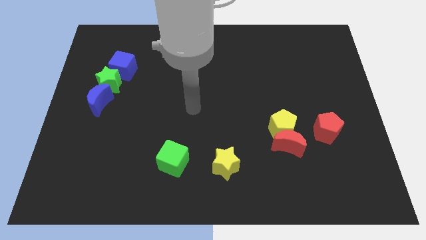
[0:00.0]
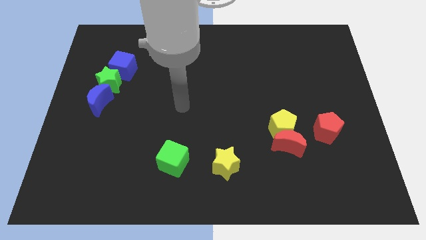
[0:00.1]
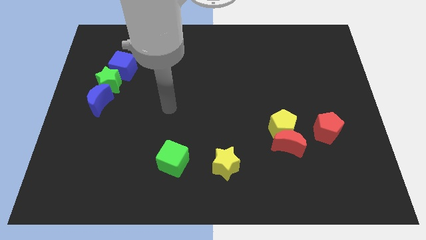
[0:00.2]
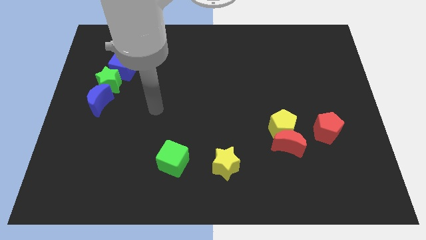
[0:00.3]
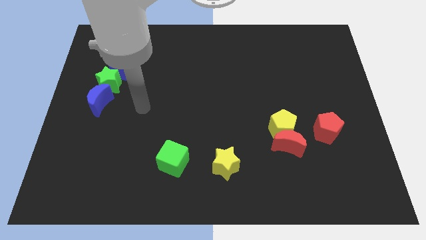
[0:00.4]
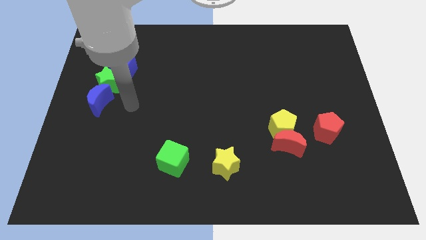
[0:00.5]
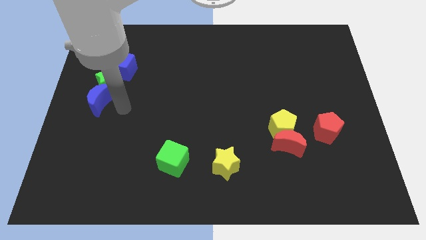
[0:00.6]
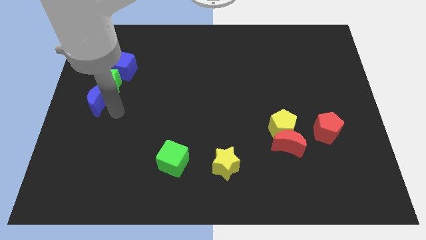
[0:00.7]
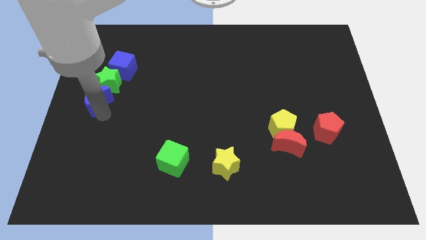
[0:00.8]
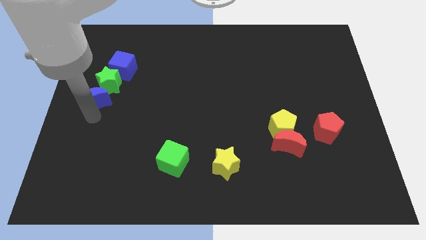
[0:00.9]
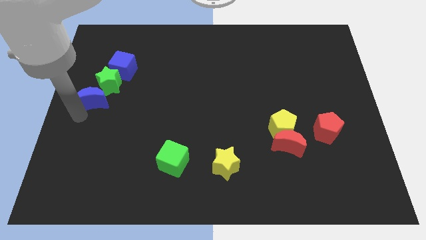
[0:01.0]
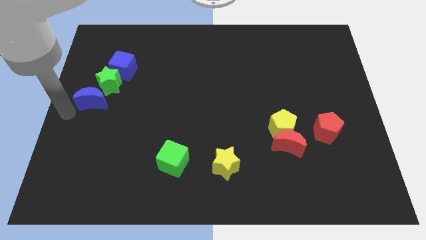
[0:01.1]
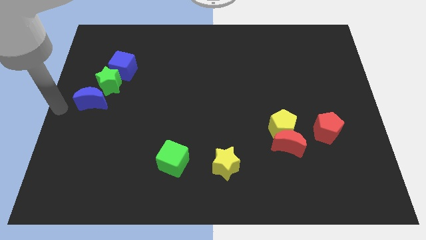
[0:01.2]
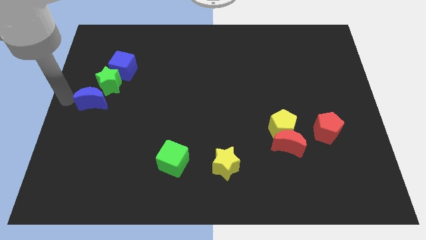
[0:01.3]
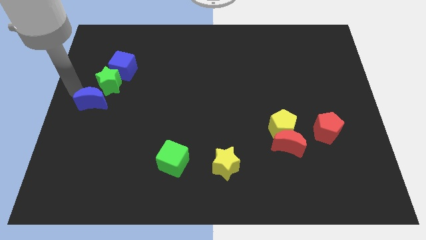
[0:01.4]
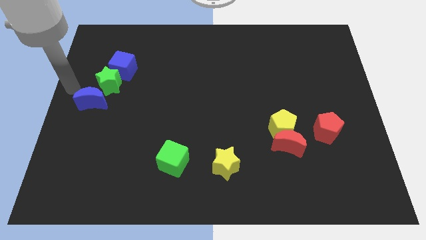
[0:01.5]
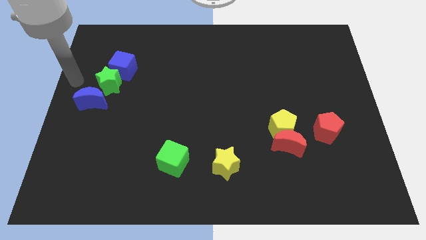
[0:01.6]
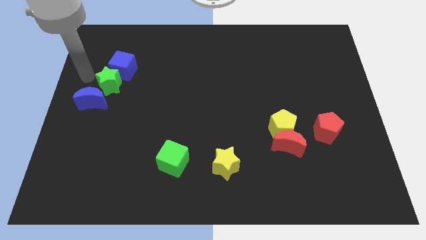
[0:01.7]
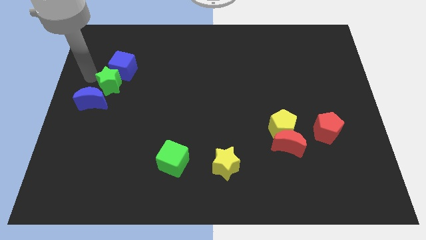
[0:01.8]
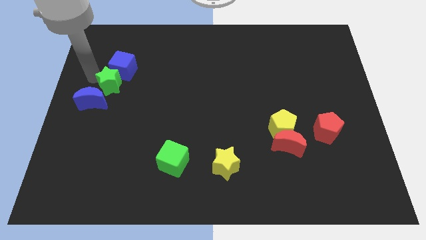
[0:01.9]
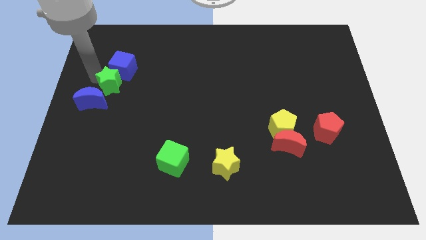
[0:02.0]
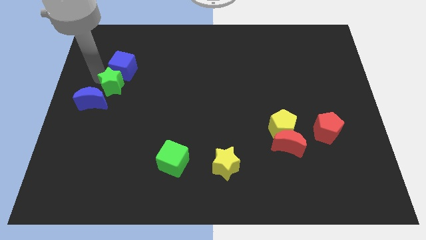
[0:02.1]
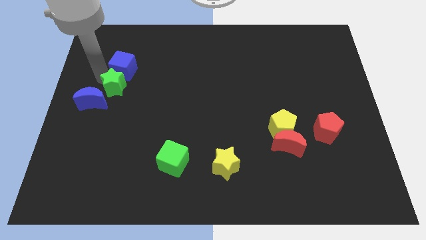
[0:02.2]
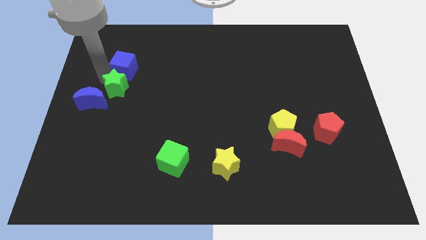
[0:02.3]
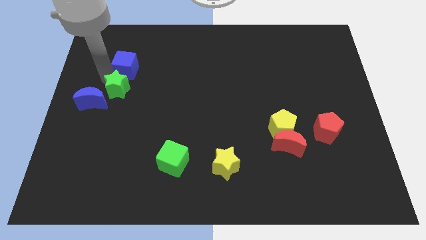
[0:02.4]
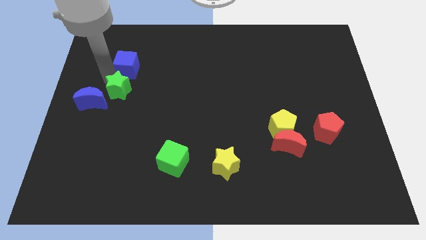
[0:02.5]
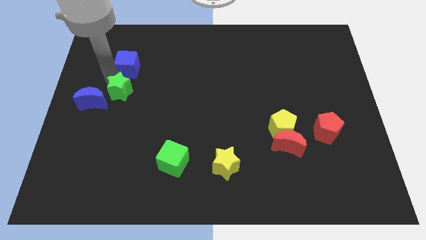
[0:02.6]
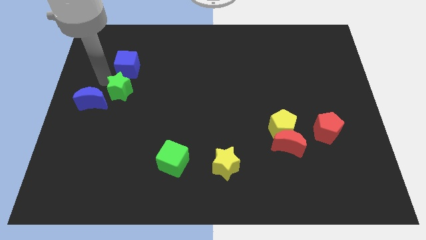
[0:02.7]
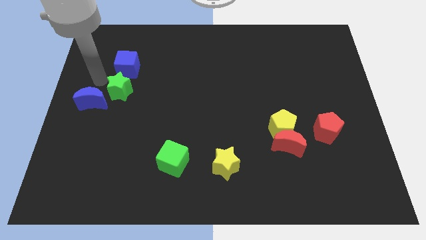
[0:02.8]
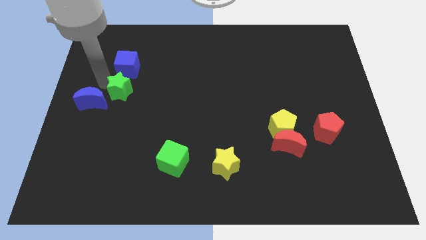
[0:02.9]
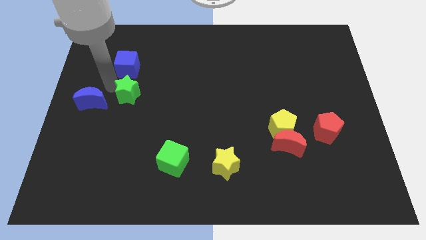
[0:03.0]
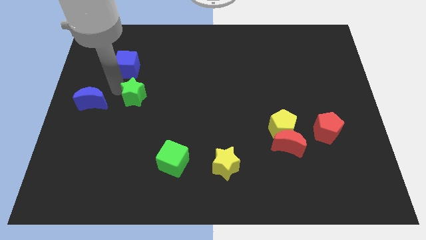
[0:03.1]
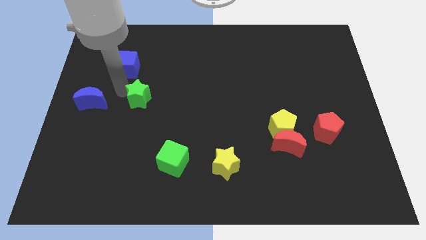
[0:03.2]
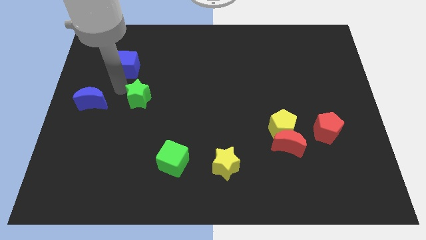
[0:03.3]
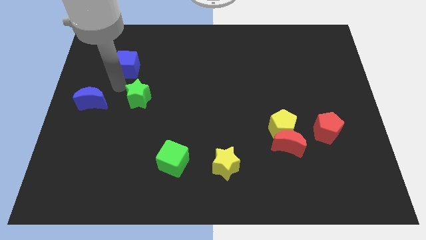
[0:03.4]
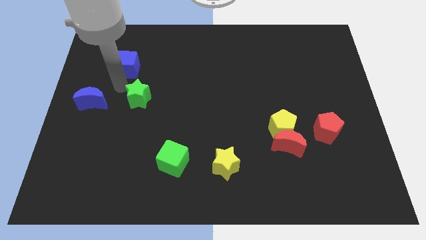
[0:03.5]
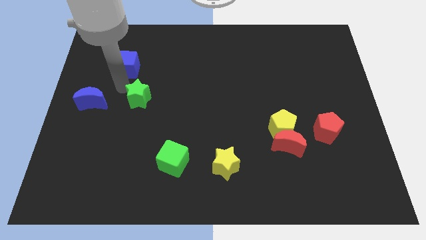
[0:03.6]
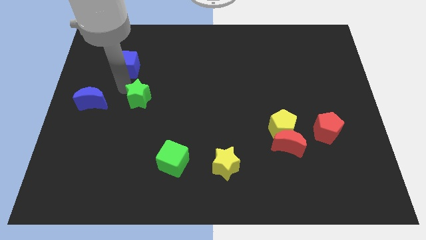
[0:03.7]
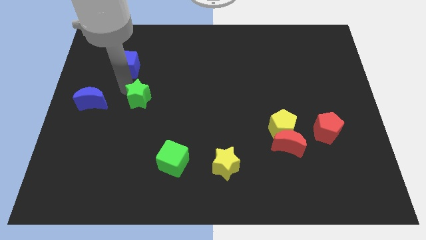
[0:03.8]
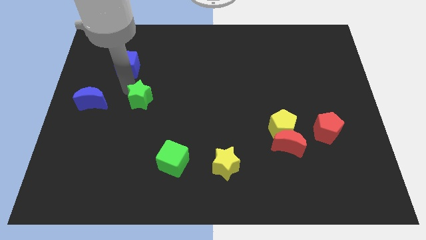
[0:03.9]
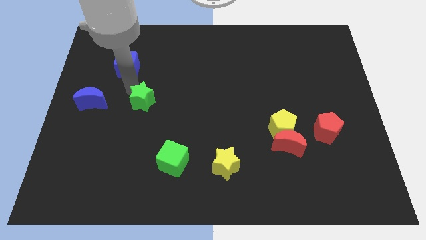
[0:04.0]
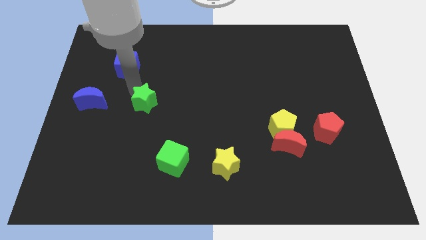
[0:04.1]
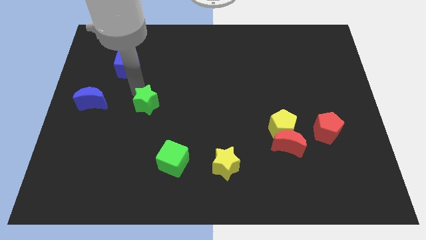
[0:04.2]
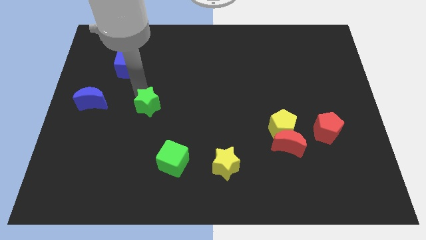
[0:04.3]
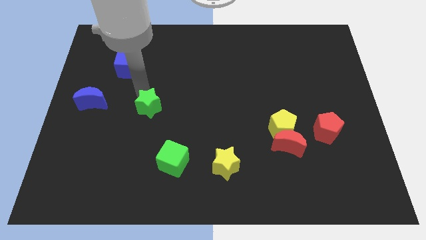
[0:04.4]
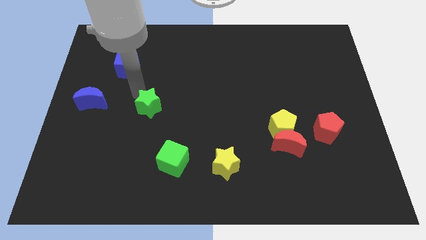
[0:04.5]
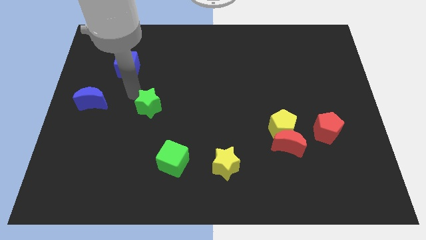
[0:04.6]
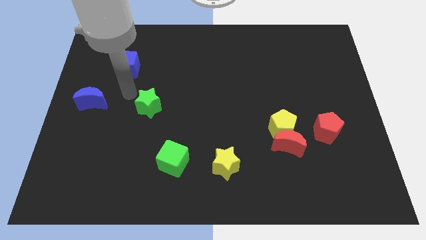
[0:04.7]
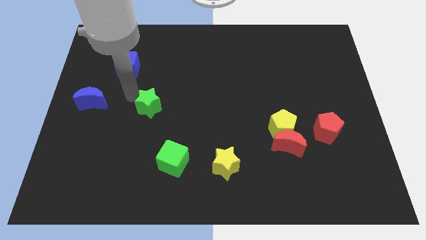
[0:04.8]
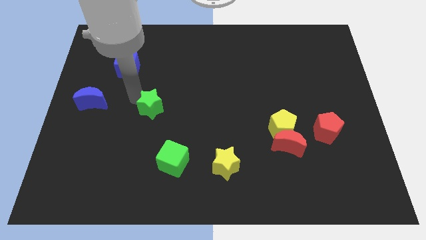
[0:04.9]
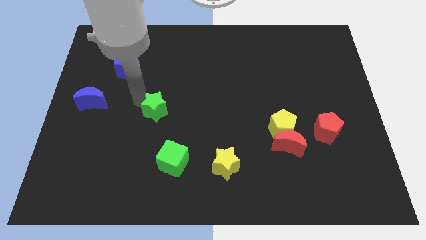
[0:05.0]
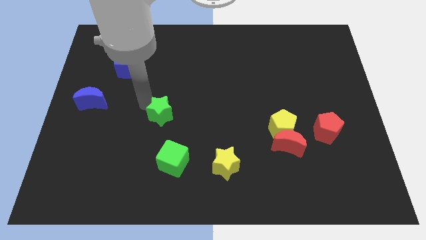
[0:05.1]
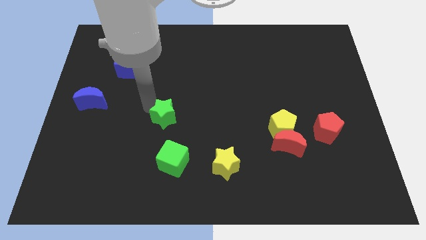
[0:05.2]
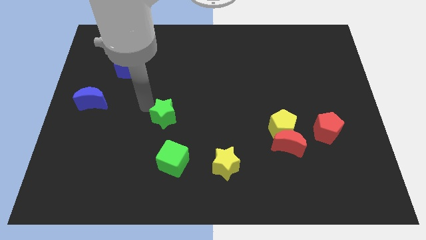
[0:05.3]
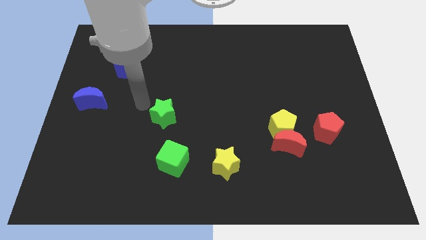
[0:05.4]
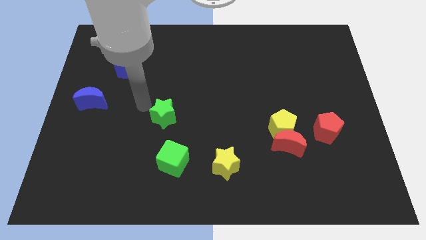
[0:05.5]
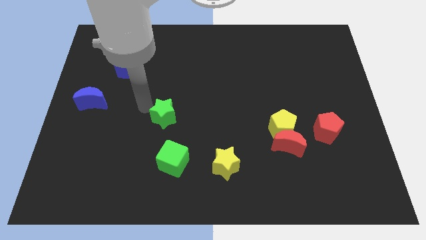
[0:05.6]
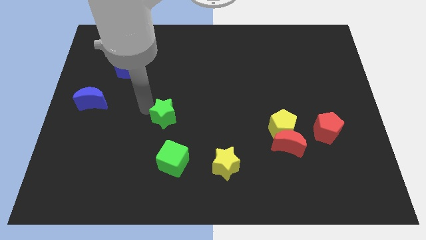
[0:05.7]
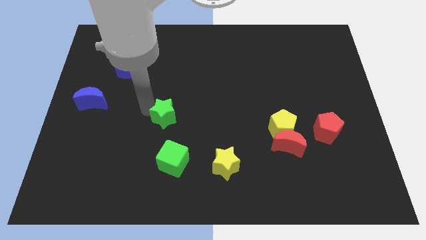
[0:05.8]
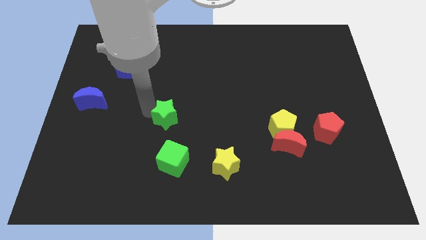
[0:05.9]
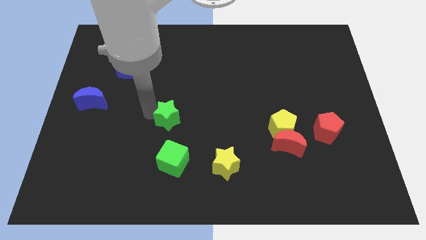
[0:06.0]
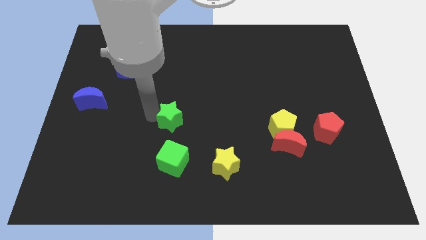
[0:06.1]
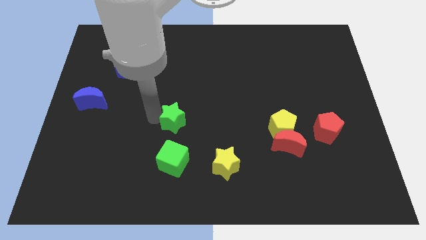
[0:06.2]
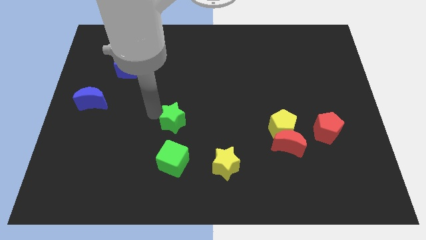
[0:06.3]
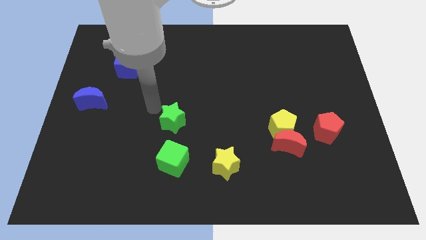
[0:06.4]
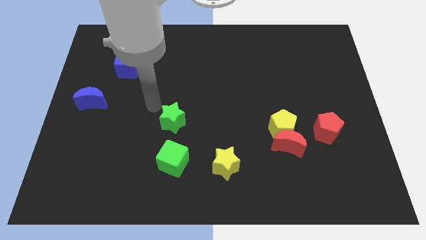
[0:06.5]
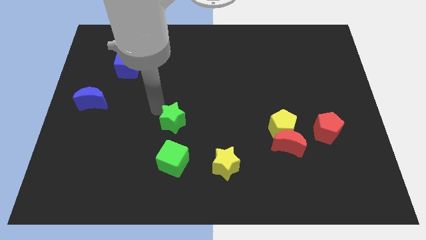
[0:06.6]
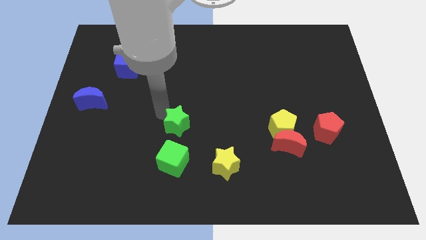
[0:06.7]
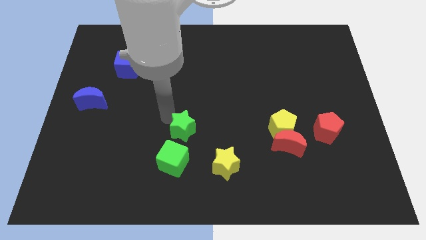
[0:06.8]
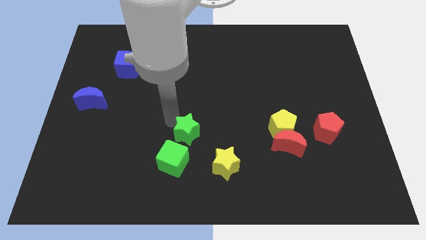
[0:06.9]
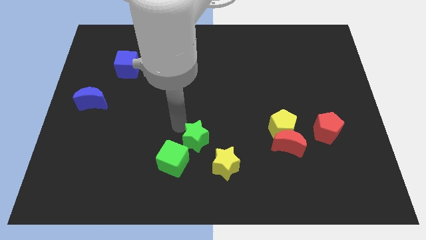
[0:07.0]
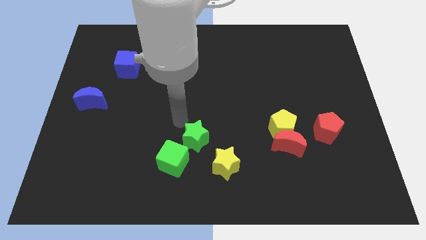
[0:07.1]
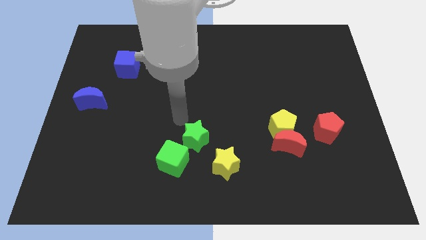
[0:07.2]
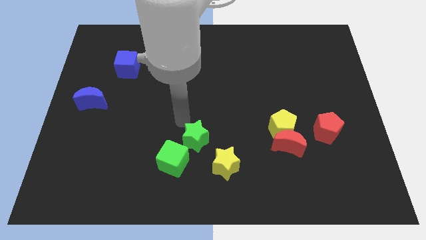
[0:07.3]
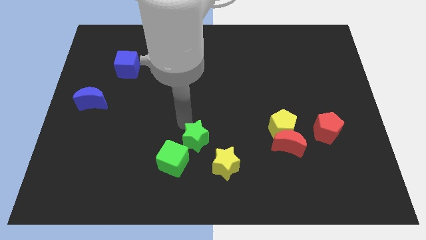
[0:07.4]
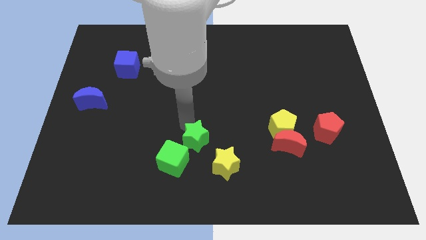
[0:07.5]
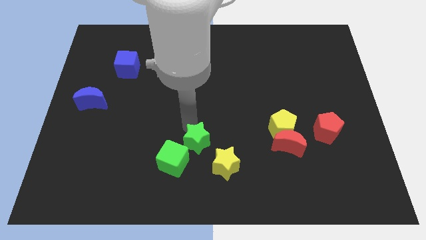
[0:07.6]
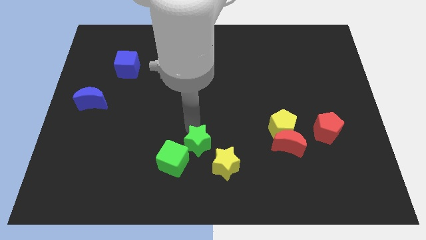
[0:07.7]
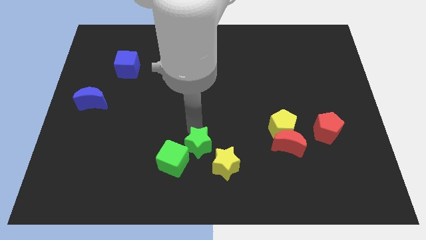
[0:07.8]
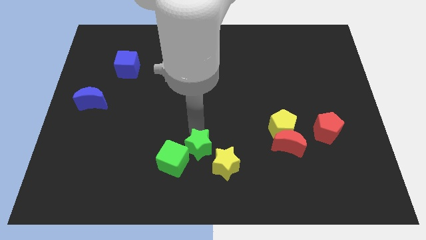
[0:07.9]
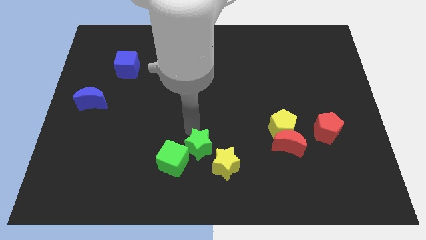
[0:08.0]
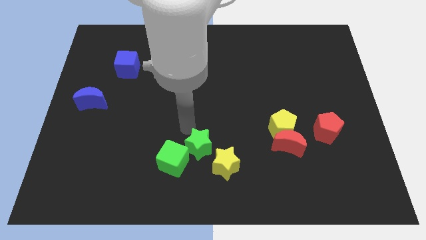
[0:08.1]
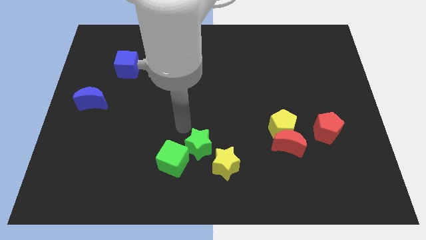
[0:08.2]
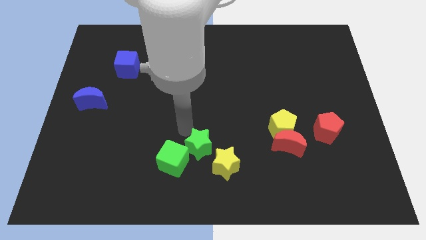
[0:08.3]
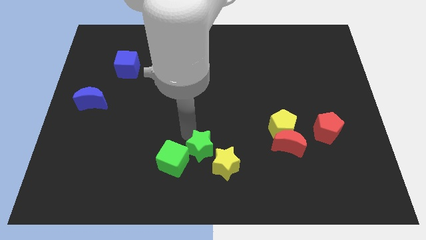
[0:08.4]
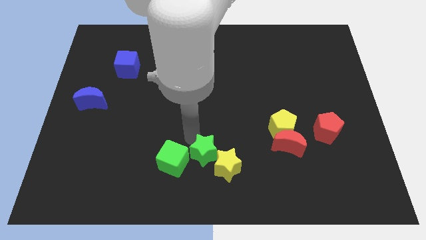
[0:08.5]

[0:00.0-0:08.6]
put the green star next to the yellow star
